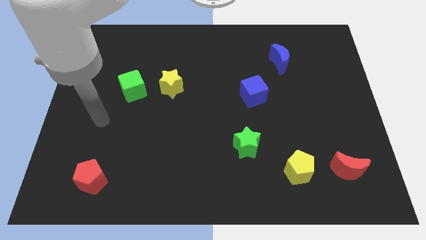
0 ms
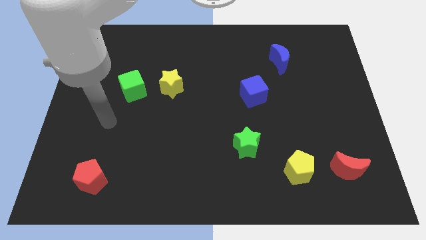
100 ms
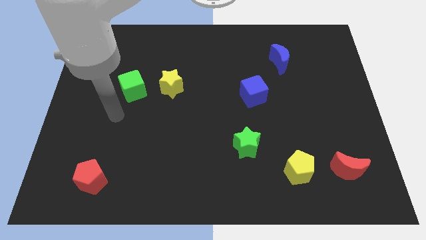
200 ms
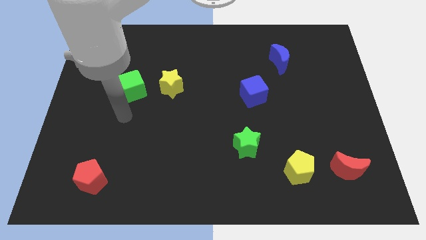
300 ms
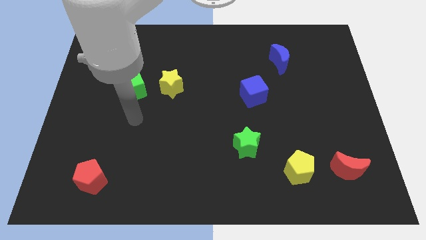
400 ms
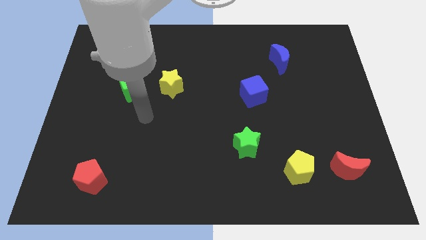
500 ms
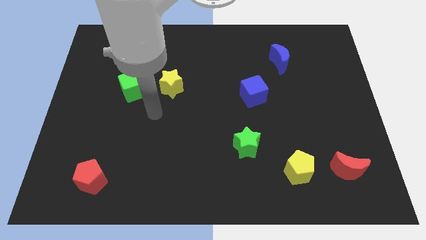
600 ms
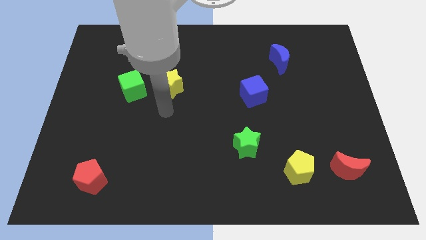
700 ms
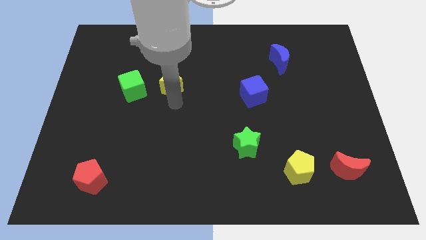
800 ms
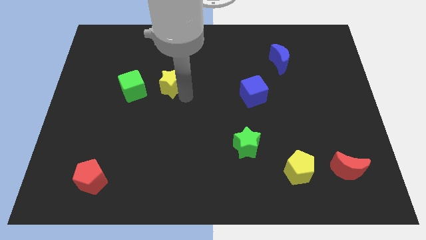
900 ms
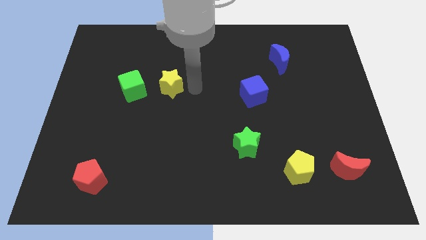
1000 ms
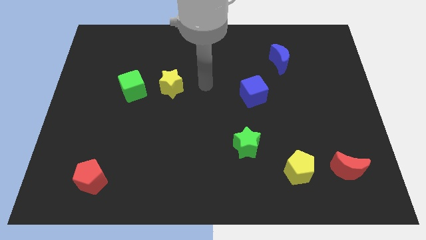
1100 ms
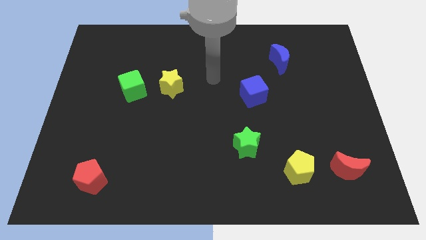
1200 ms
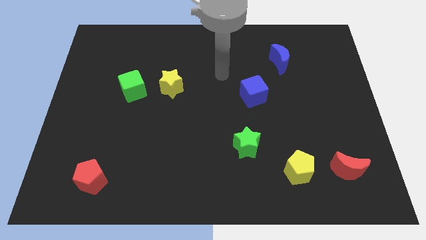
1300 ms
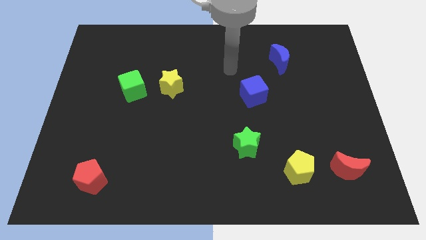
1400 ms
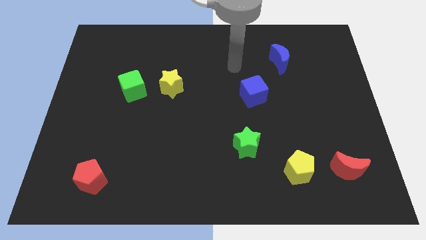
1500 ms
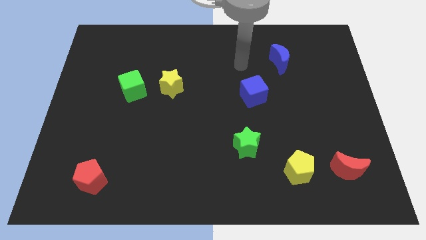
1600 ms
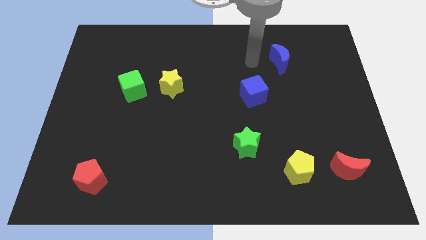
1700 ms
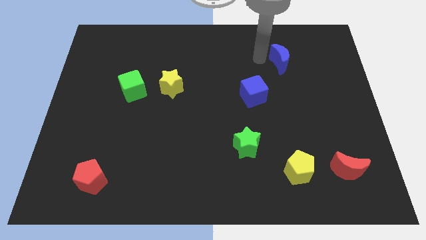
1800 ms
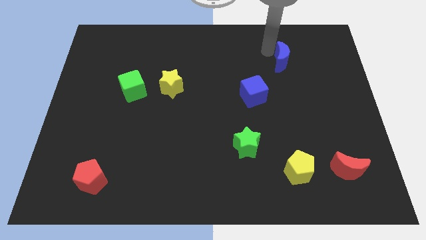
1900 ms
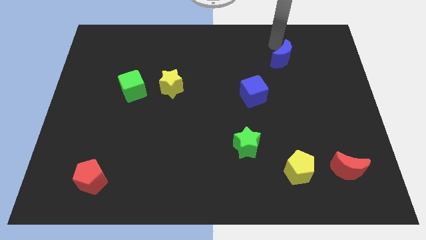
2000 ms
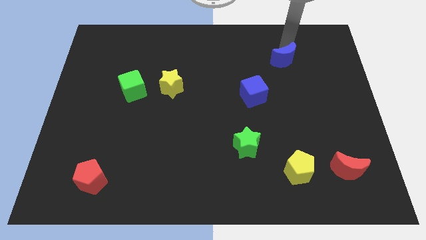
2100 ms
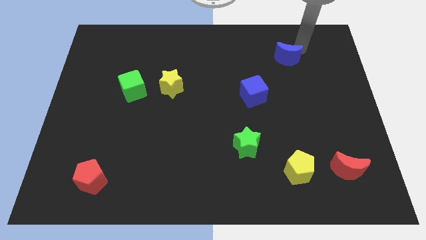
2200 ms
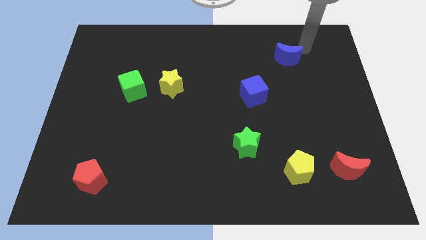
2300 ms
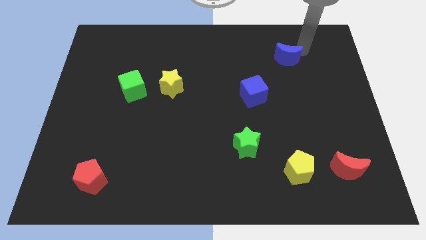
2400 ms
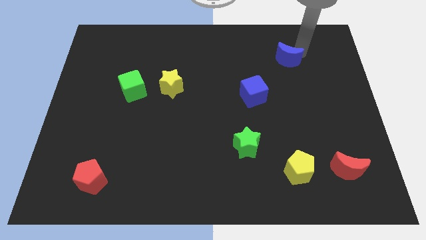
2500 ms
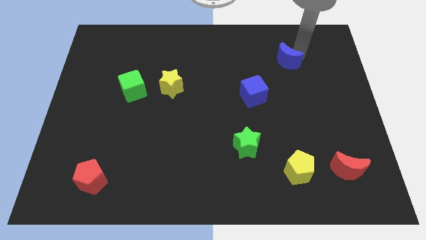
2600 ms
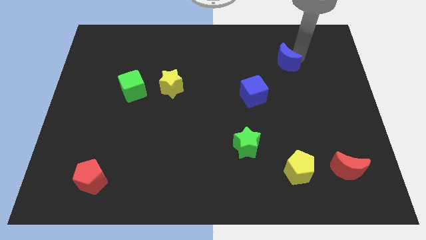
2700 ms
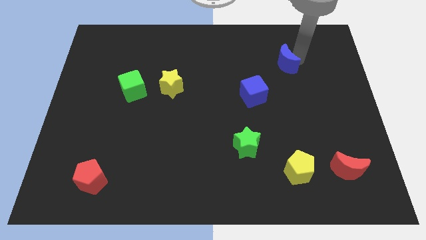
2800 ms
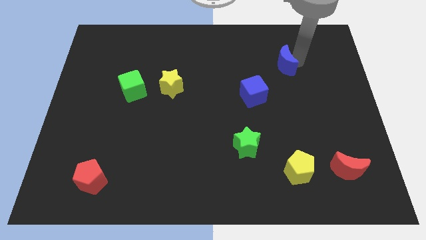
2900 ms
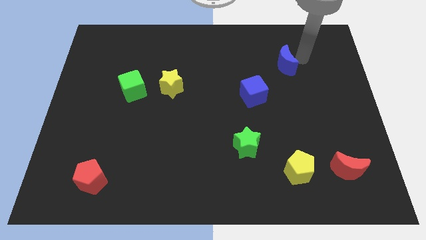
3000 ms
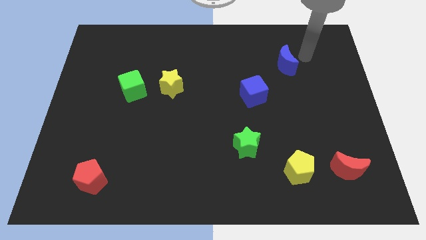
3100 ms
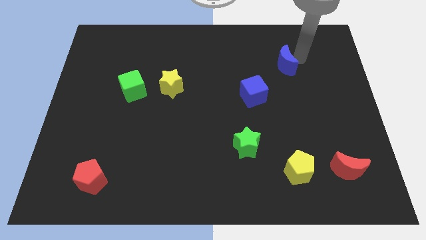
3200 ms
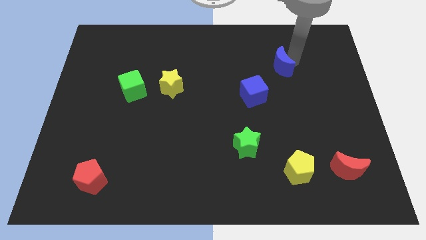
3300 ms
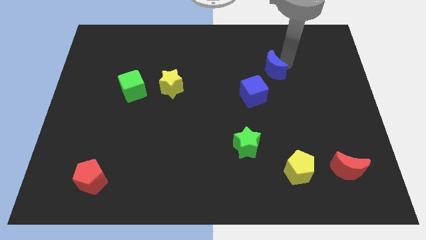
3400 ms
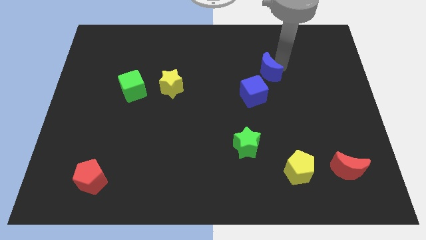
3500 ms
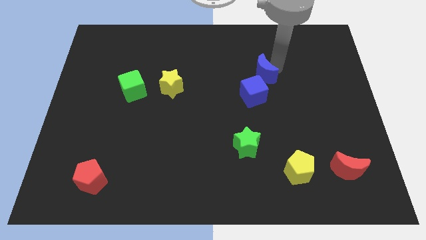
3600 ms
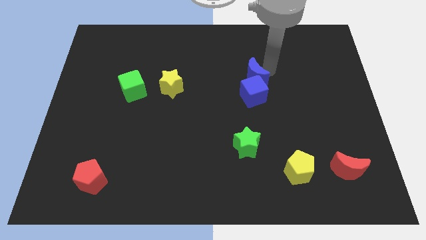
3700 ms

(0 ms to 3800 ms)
slightly push the blue moon downwards and left diagonally

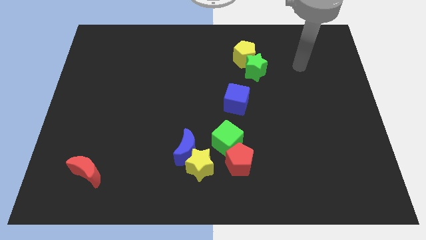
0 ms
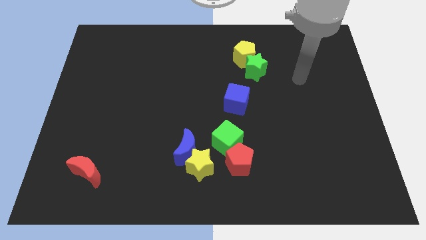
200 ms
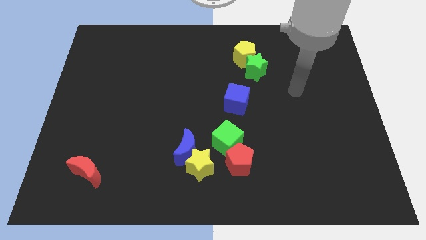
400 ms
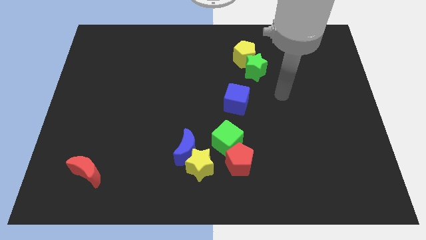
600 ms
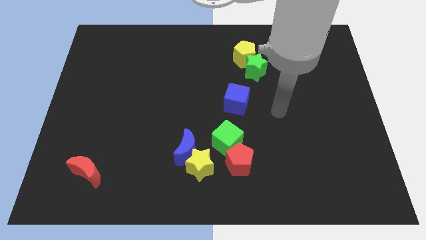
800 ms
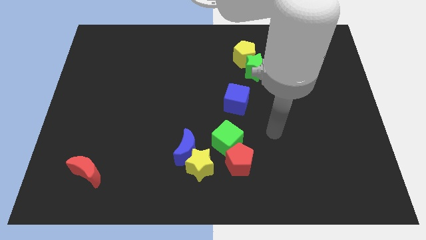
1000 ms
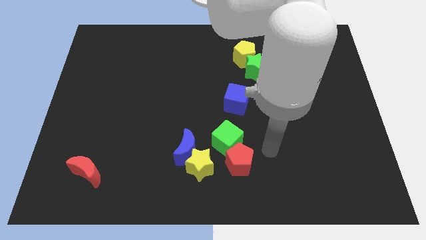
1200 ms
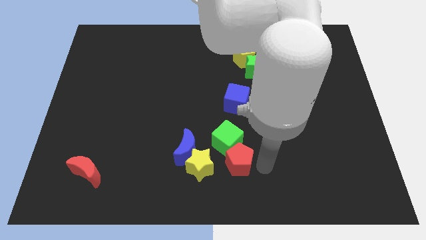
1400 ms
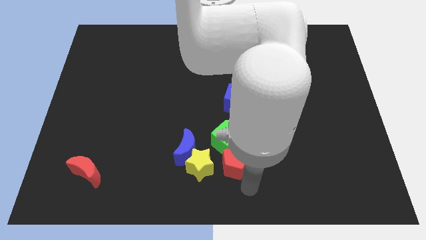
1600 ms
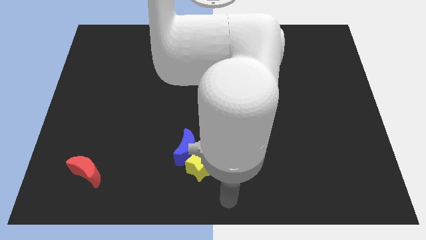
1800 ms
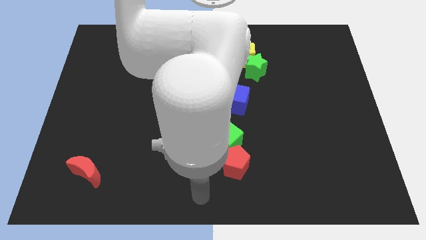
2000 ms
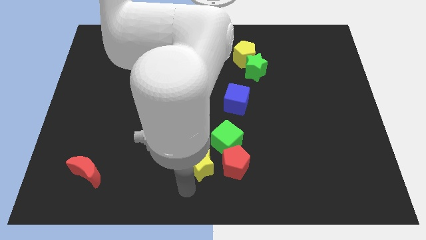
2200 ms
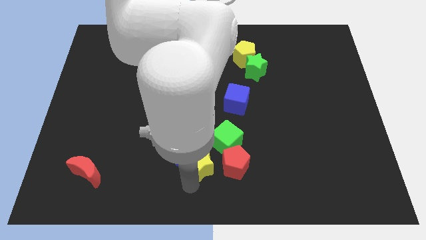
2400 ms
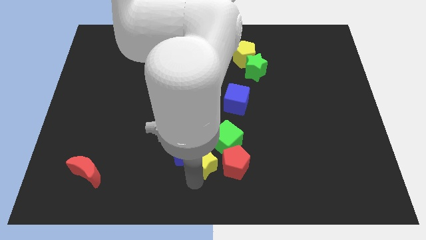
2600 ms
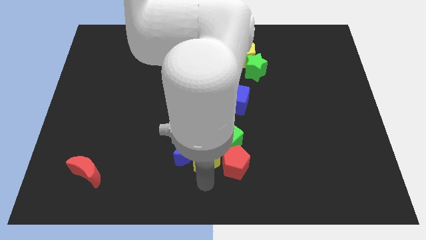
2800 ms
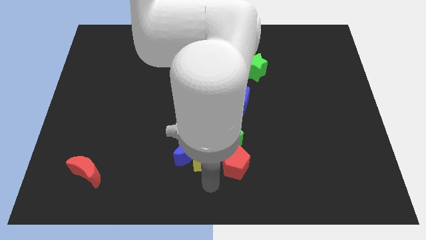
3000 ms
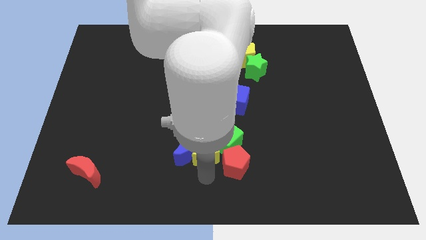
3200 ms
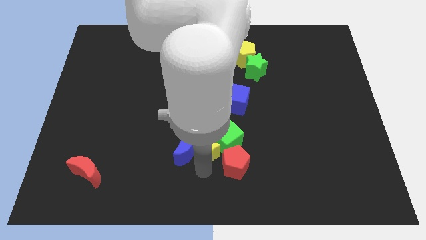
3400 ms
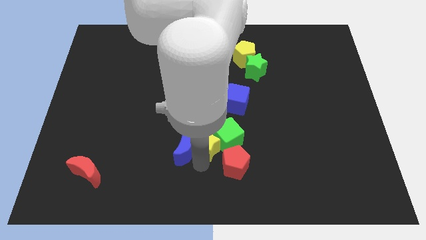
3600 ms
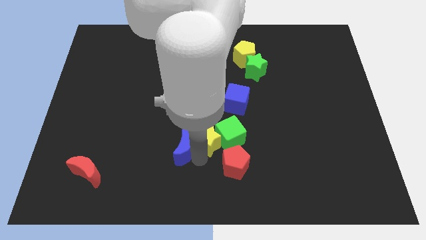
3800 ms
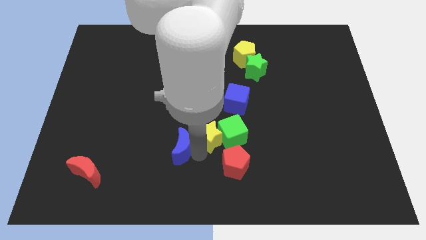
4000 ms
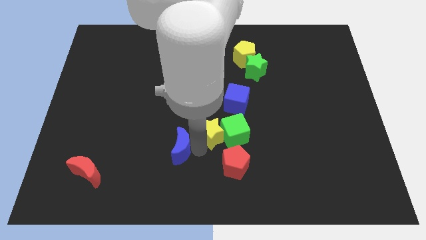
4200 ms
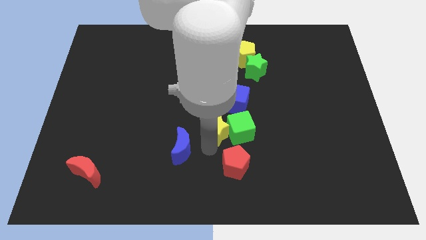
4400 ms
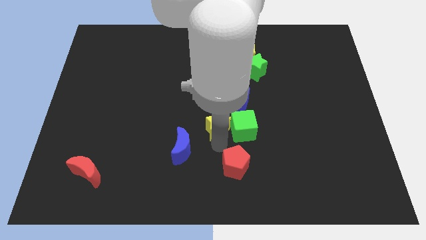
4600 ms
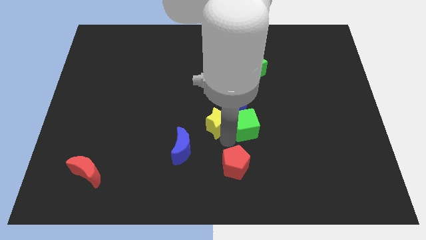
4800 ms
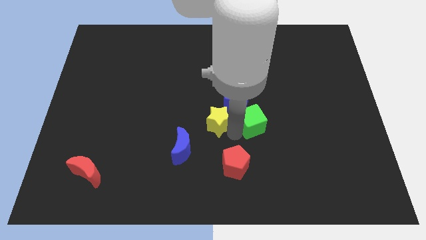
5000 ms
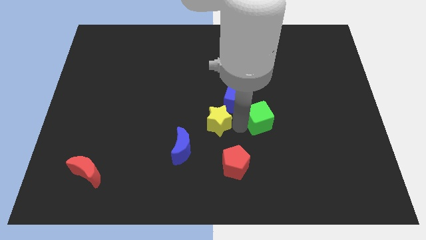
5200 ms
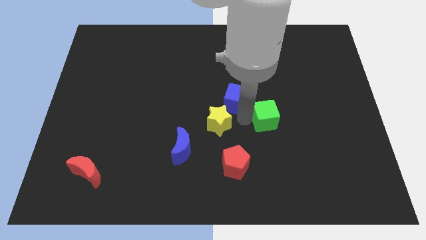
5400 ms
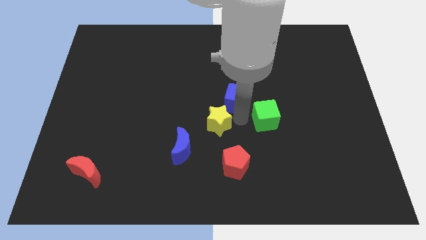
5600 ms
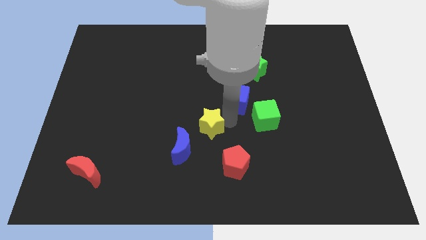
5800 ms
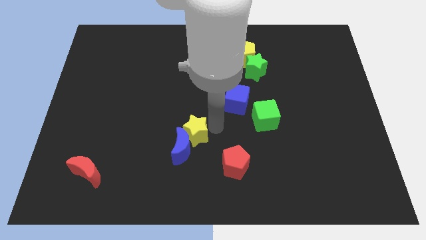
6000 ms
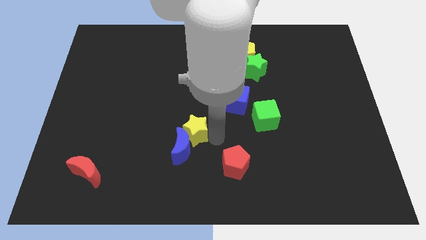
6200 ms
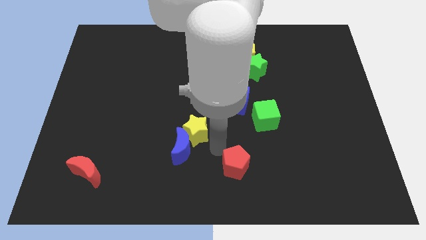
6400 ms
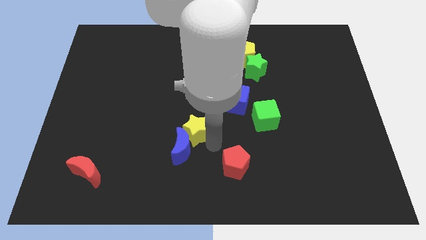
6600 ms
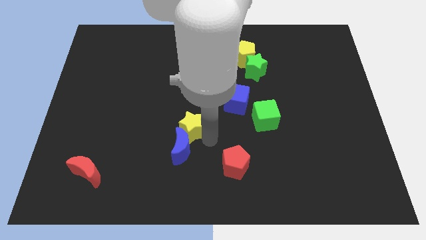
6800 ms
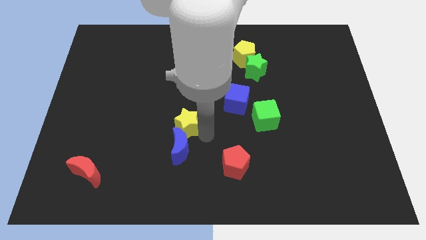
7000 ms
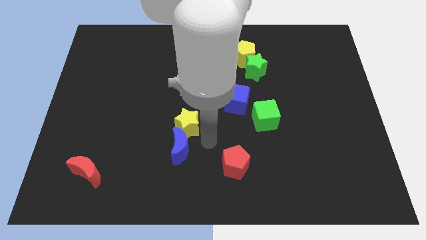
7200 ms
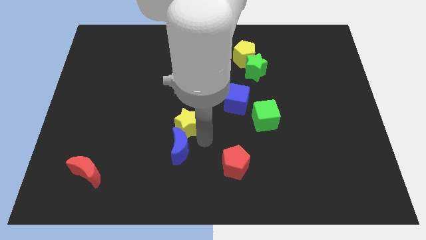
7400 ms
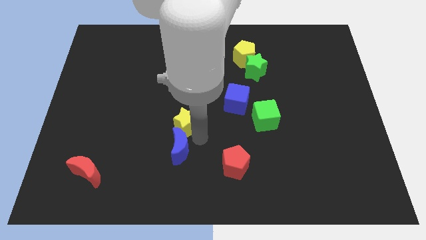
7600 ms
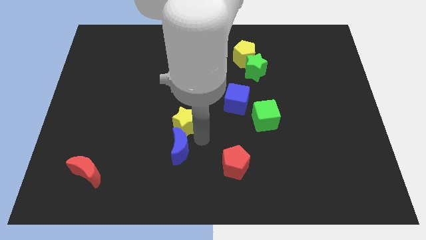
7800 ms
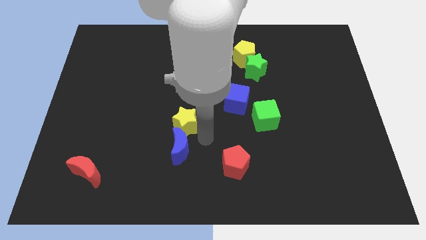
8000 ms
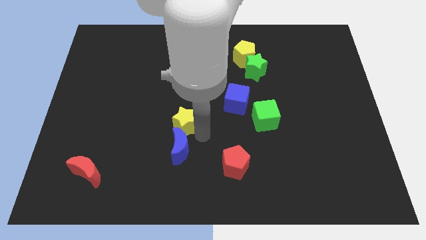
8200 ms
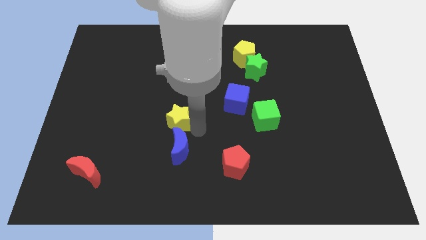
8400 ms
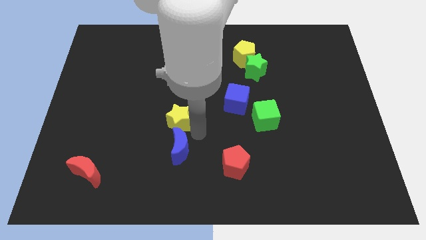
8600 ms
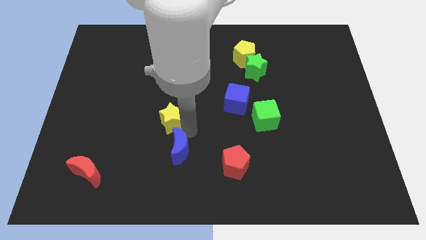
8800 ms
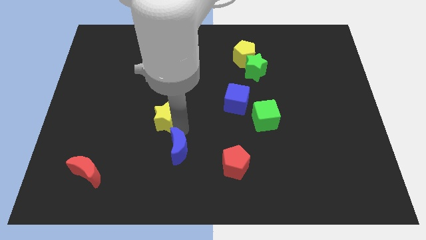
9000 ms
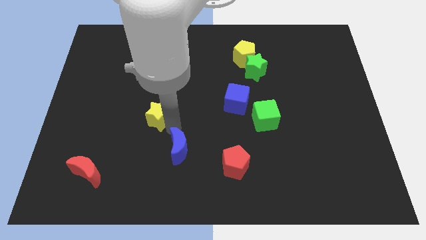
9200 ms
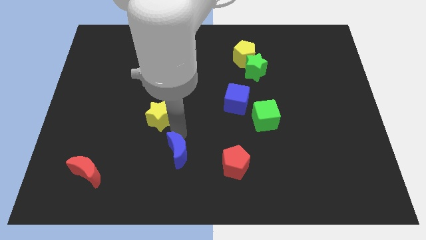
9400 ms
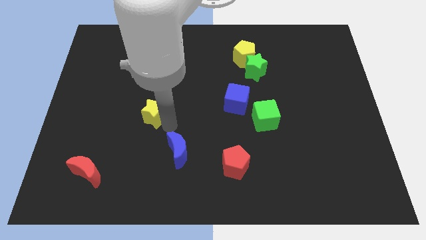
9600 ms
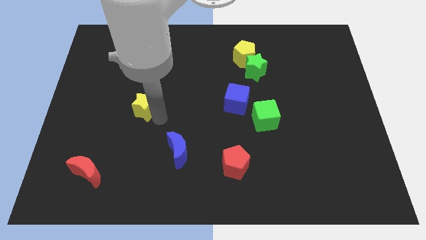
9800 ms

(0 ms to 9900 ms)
move the yellow star upwards and then to the left
